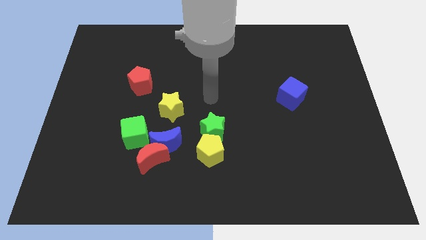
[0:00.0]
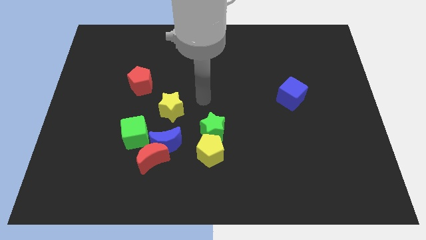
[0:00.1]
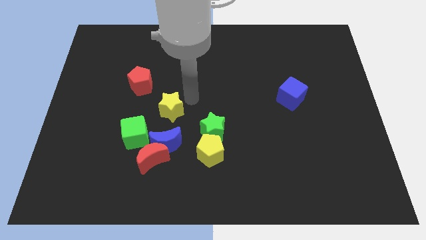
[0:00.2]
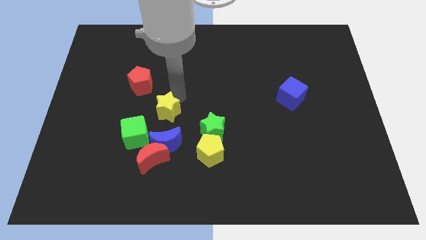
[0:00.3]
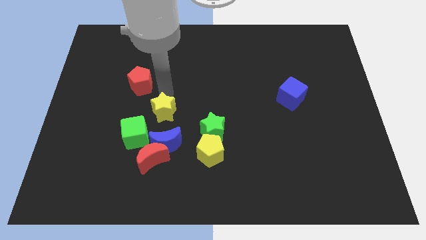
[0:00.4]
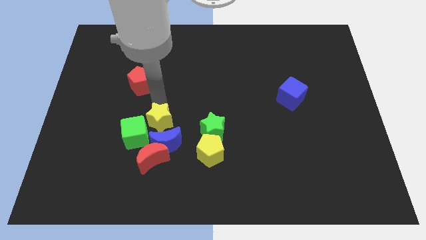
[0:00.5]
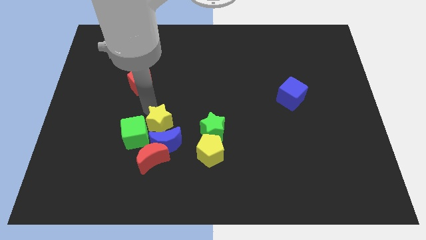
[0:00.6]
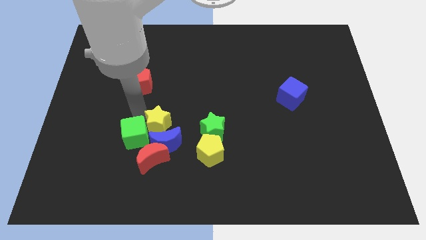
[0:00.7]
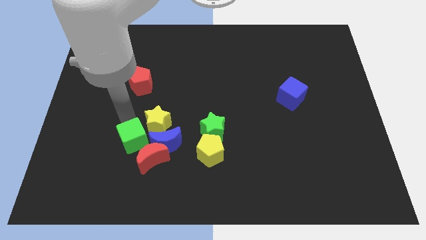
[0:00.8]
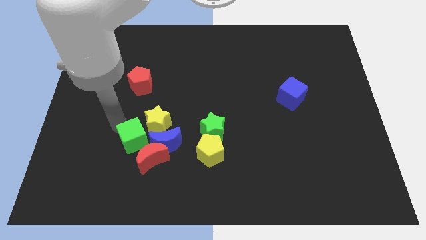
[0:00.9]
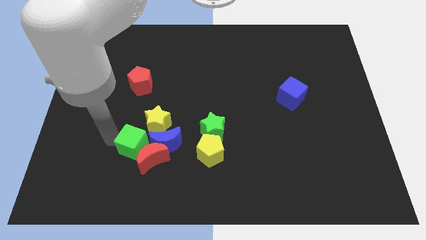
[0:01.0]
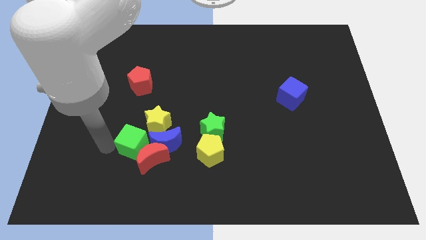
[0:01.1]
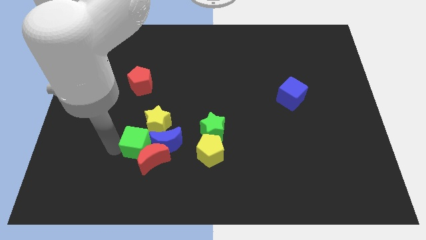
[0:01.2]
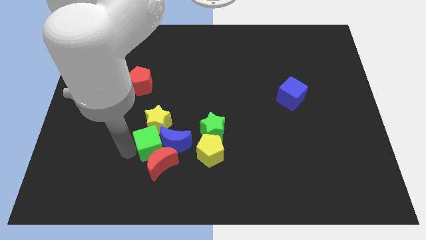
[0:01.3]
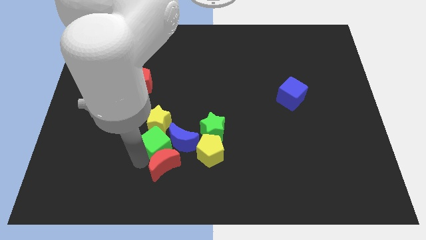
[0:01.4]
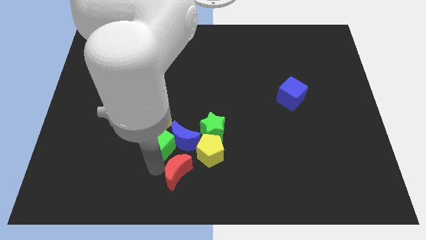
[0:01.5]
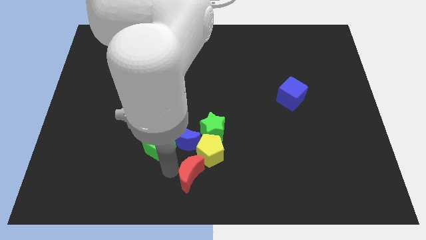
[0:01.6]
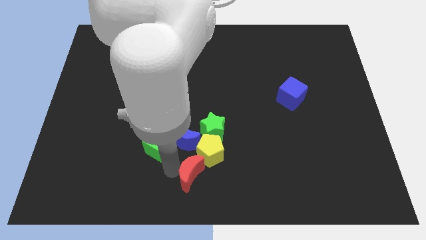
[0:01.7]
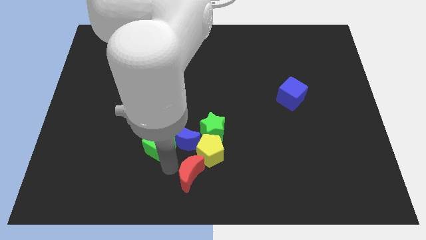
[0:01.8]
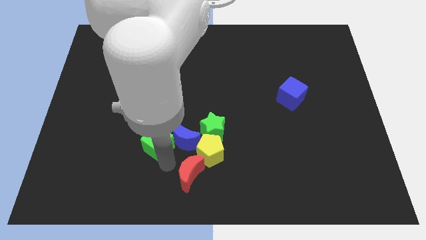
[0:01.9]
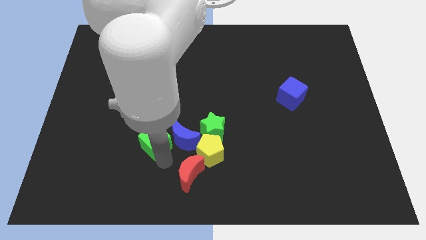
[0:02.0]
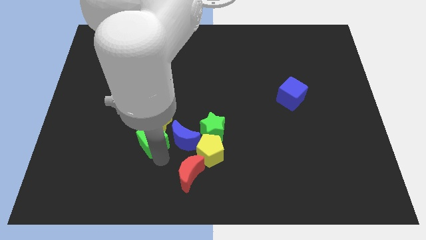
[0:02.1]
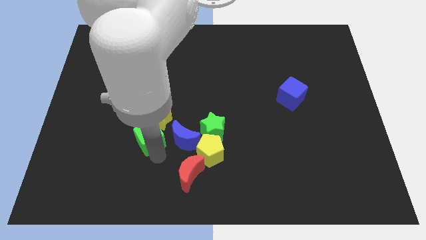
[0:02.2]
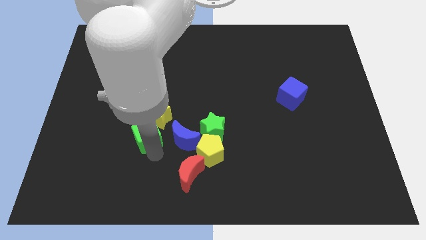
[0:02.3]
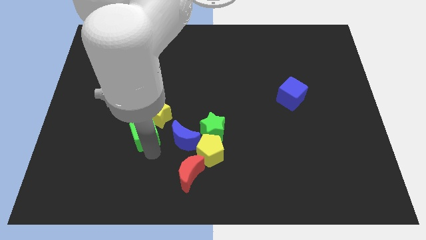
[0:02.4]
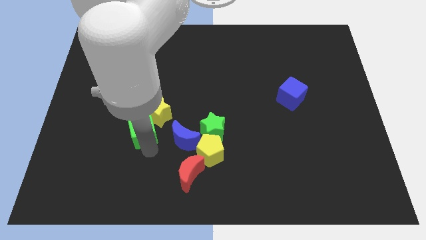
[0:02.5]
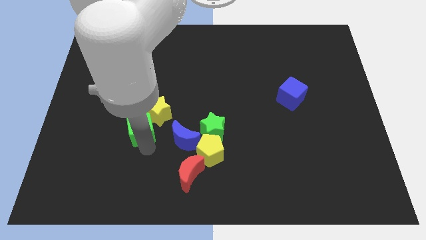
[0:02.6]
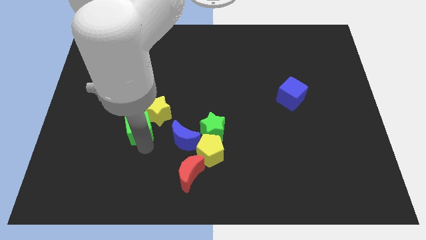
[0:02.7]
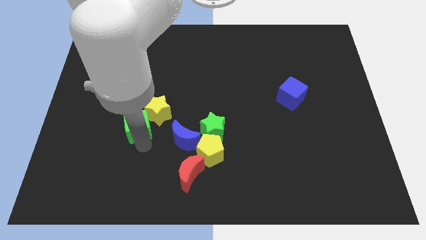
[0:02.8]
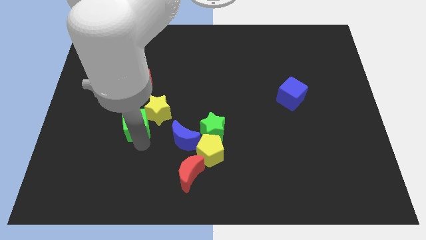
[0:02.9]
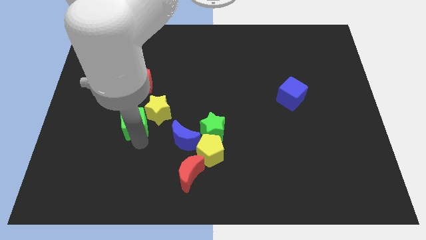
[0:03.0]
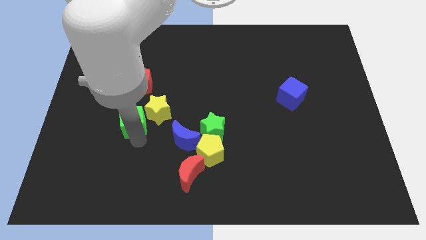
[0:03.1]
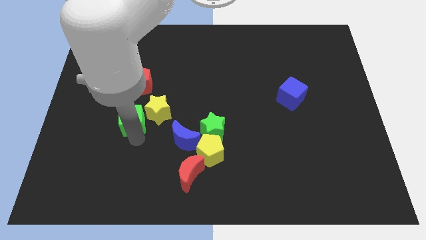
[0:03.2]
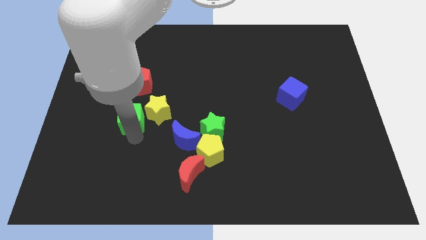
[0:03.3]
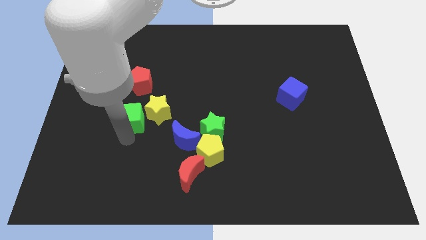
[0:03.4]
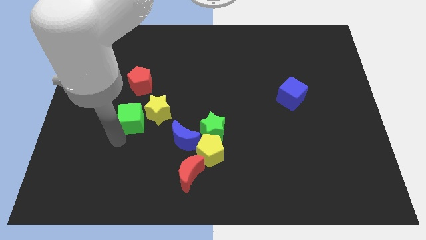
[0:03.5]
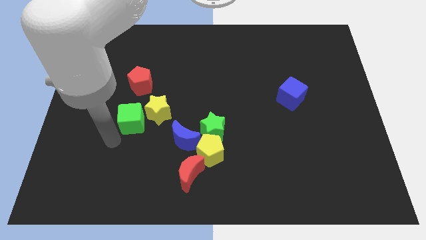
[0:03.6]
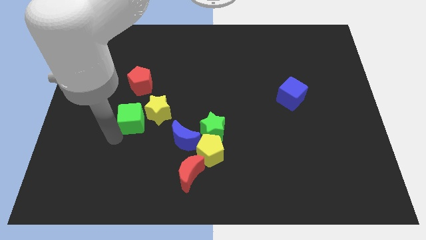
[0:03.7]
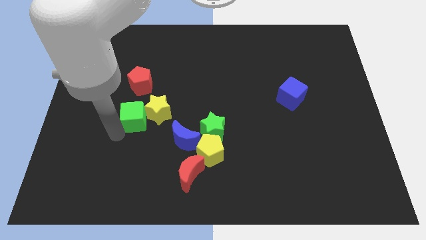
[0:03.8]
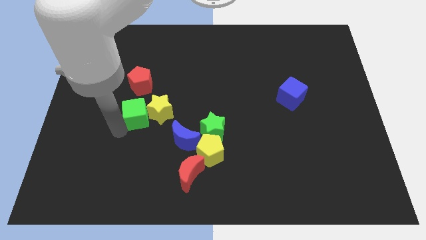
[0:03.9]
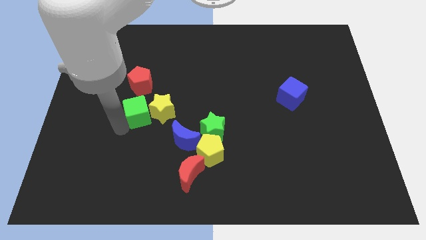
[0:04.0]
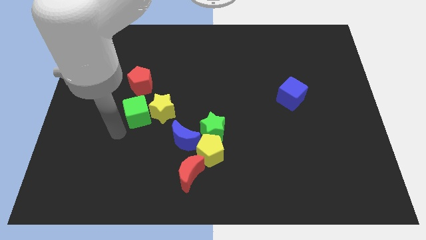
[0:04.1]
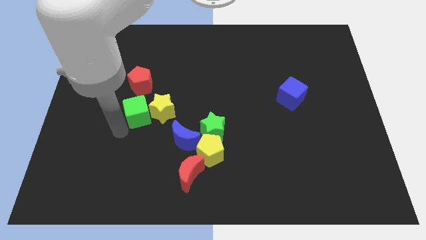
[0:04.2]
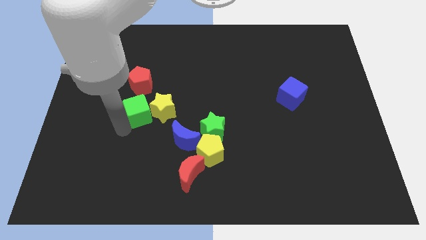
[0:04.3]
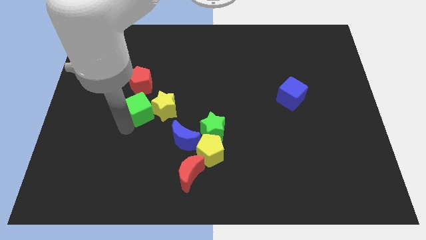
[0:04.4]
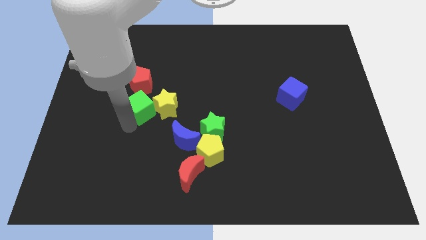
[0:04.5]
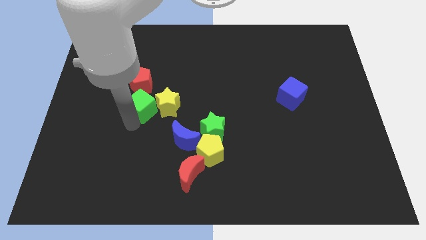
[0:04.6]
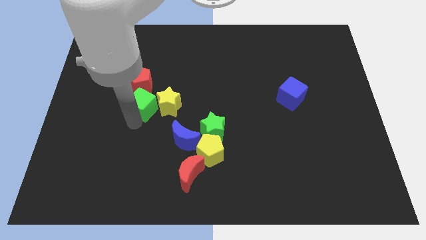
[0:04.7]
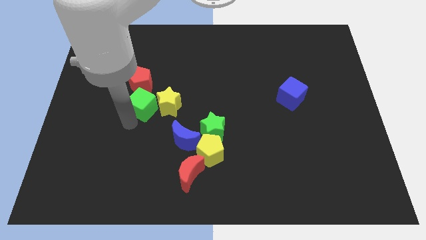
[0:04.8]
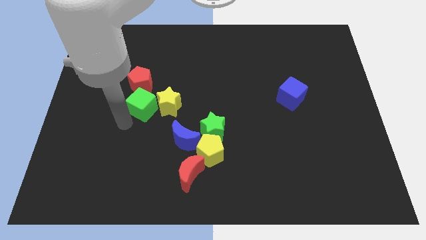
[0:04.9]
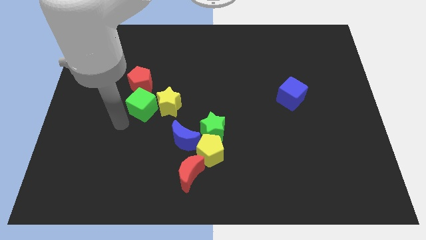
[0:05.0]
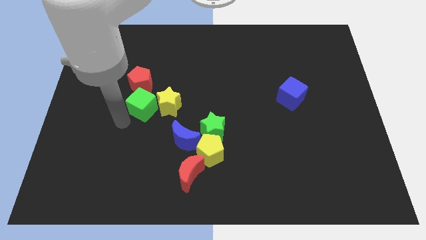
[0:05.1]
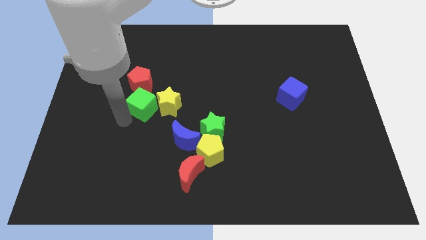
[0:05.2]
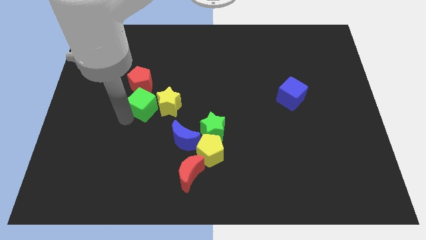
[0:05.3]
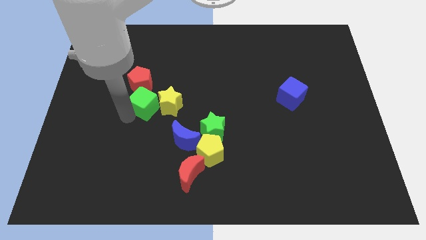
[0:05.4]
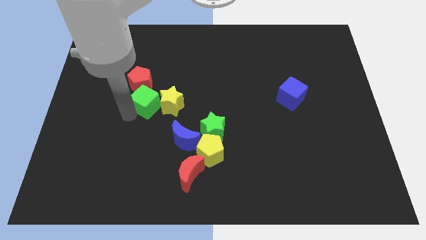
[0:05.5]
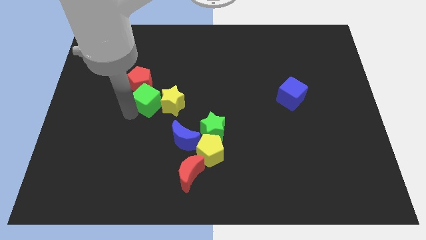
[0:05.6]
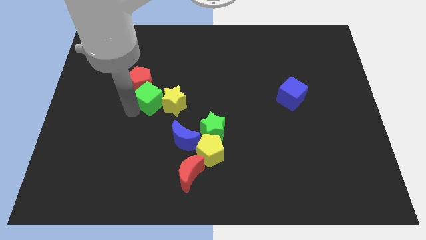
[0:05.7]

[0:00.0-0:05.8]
move the green cube upwards and to the right diagonally somewhat

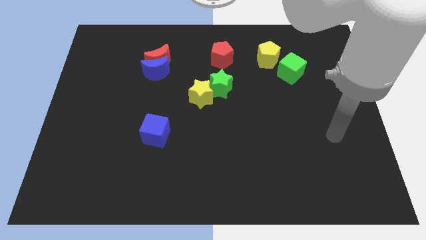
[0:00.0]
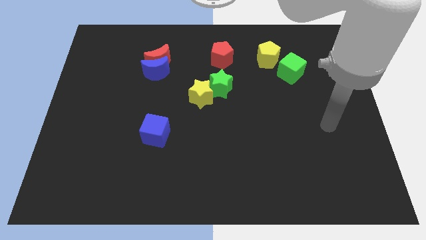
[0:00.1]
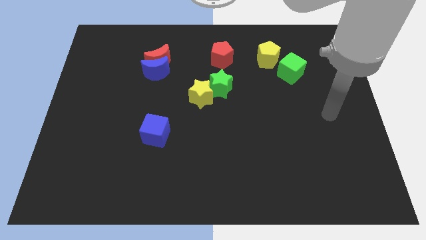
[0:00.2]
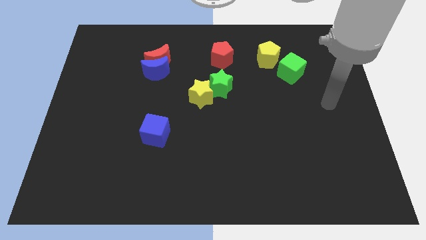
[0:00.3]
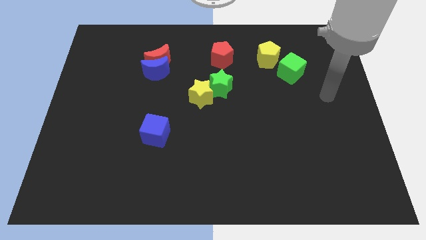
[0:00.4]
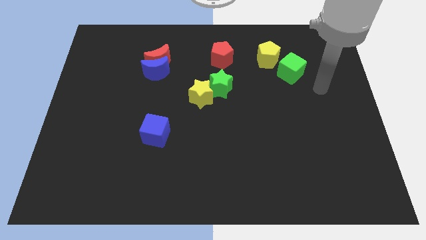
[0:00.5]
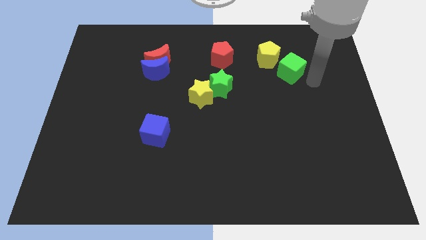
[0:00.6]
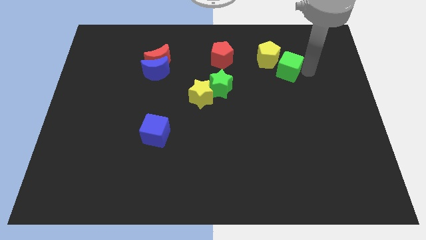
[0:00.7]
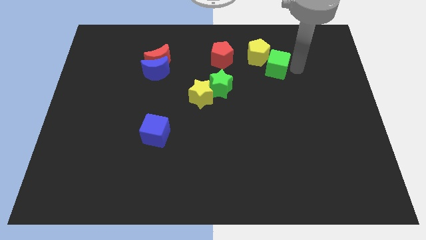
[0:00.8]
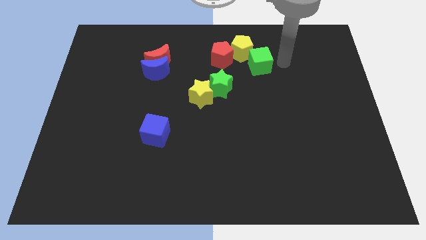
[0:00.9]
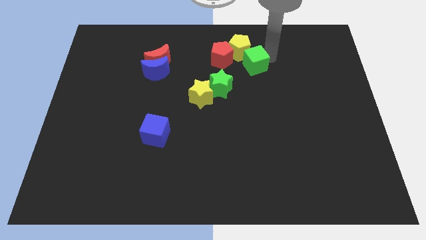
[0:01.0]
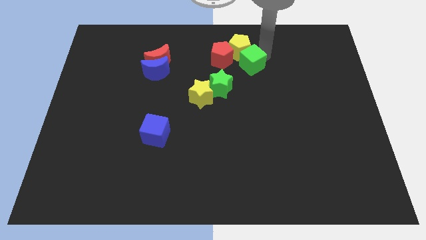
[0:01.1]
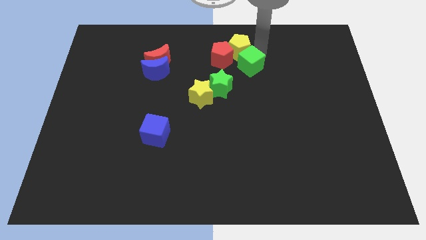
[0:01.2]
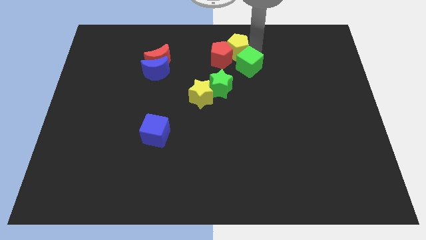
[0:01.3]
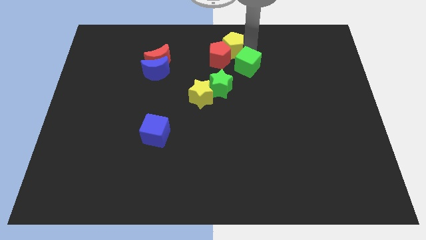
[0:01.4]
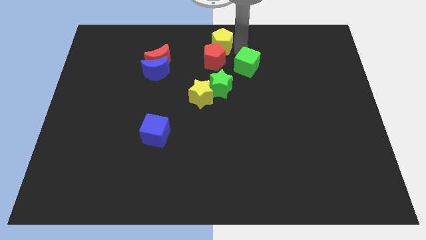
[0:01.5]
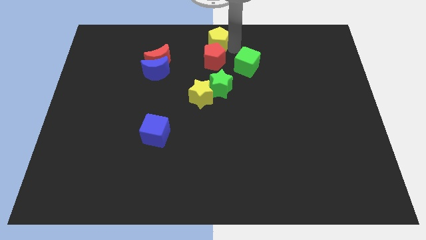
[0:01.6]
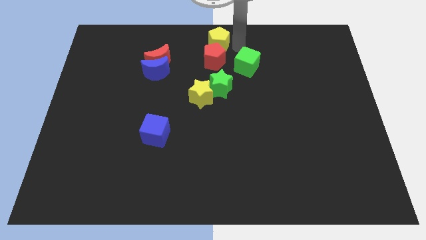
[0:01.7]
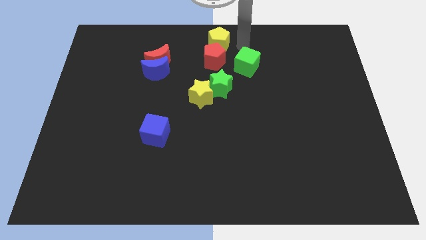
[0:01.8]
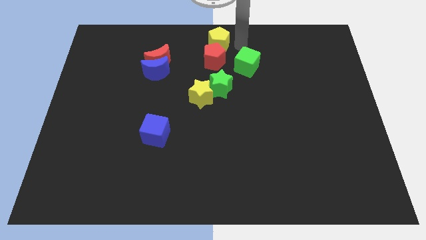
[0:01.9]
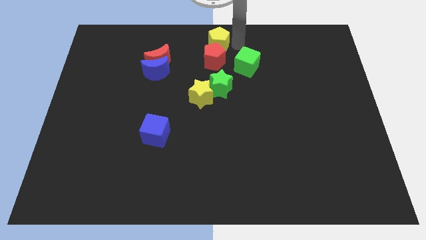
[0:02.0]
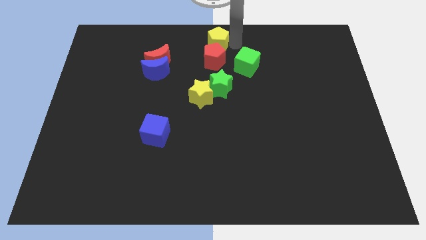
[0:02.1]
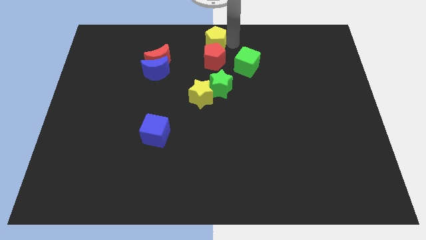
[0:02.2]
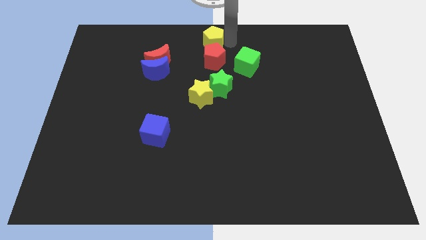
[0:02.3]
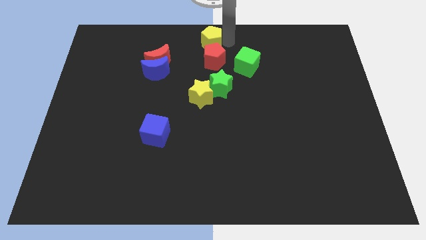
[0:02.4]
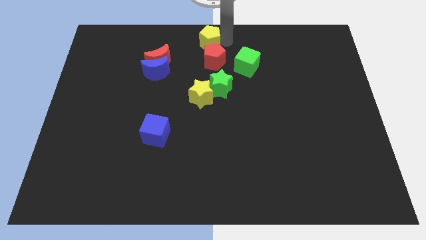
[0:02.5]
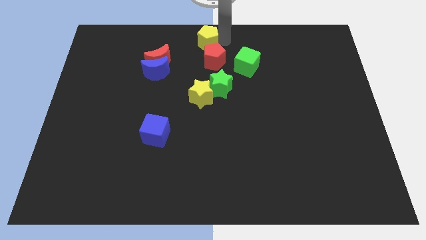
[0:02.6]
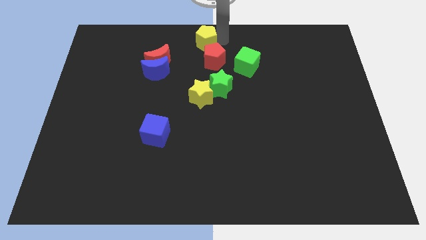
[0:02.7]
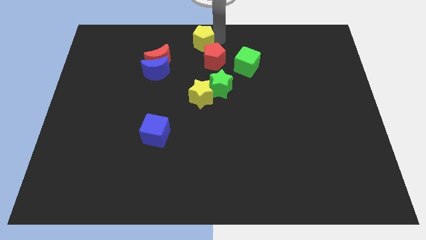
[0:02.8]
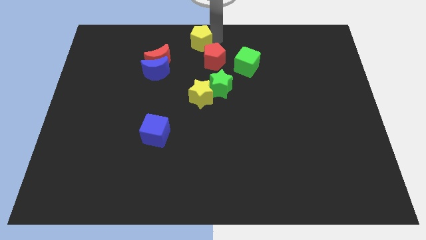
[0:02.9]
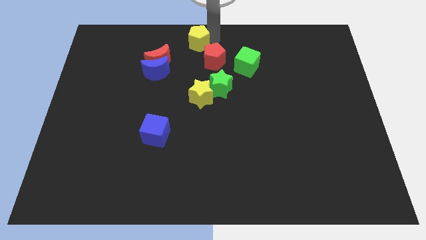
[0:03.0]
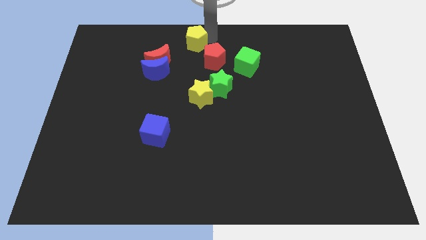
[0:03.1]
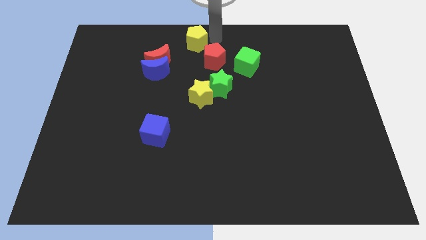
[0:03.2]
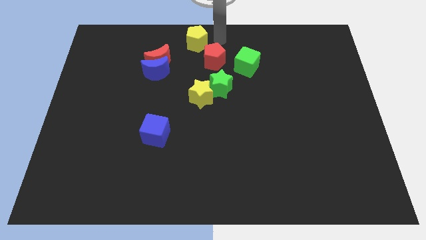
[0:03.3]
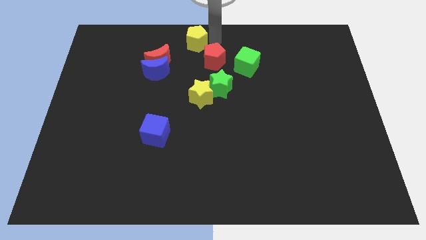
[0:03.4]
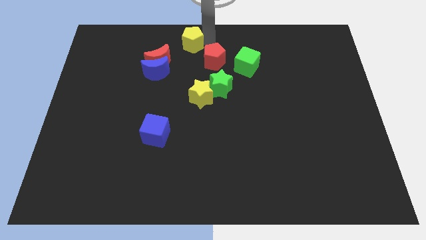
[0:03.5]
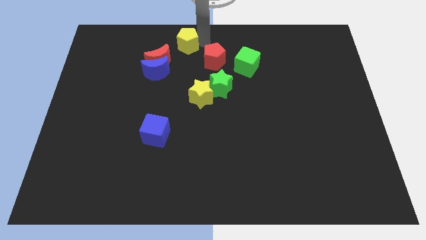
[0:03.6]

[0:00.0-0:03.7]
push the yellow pentagon left
